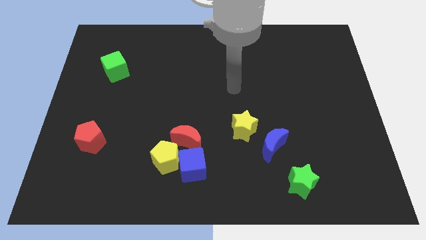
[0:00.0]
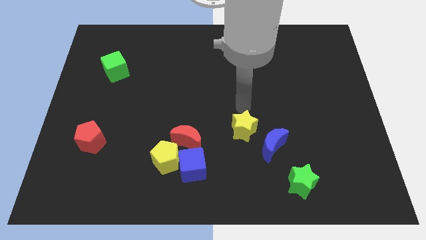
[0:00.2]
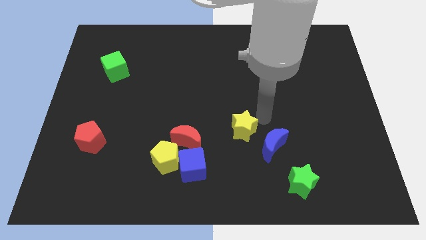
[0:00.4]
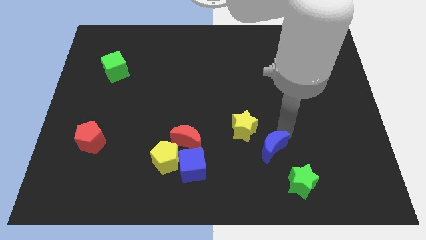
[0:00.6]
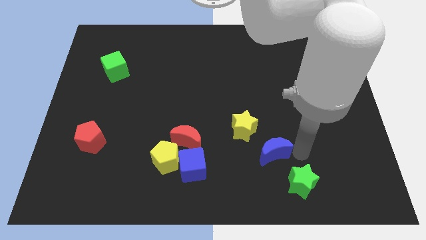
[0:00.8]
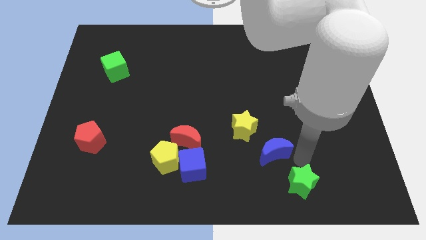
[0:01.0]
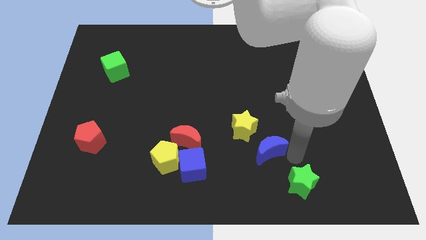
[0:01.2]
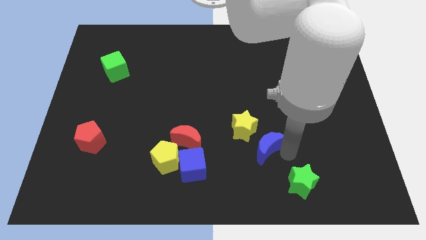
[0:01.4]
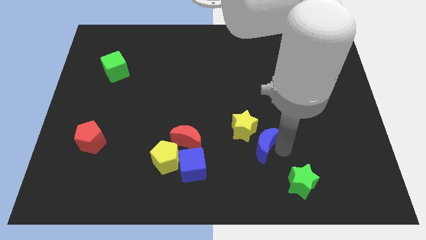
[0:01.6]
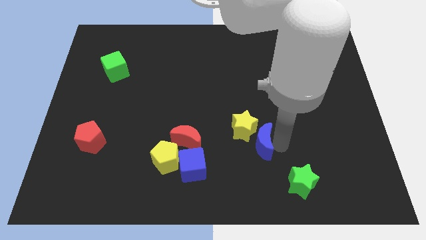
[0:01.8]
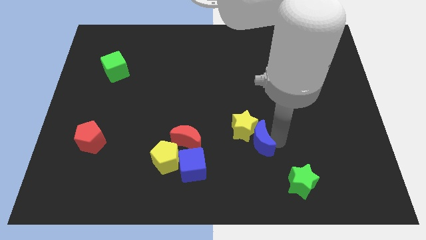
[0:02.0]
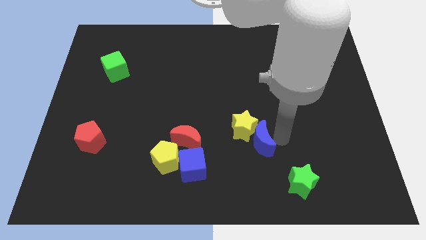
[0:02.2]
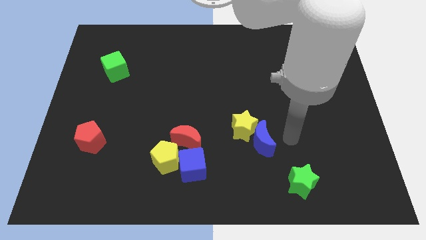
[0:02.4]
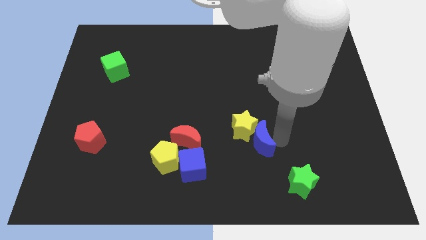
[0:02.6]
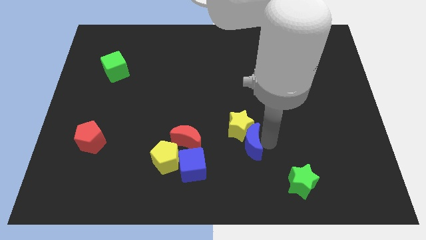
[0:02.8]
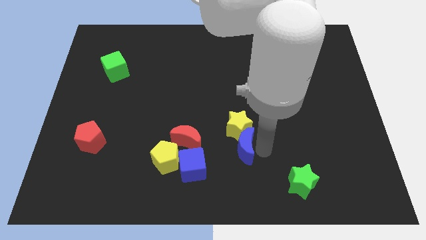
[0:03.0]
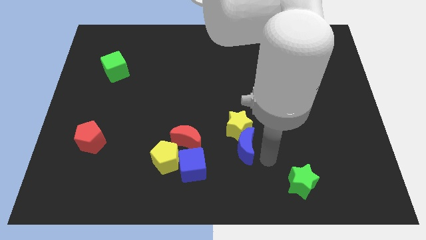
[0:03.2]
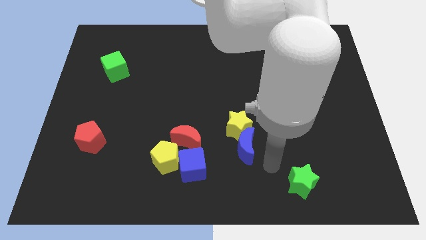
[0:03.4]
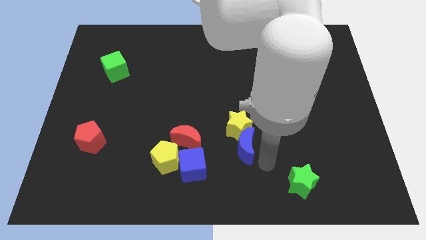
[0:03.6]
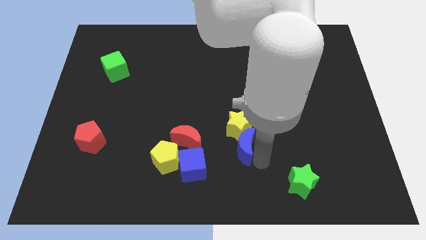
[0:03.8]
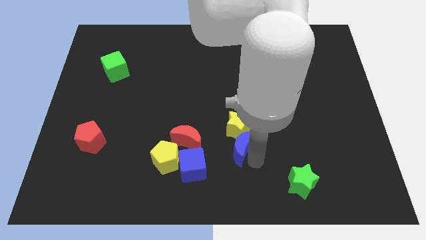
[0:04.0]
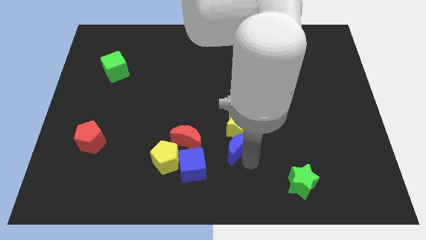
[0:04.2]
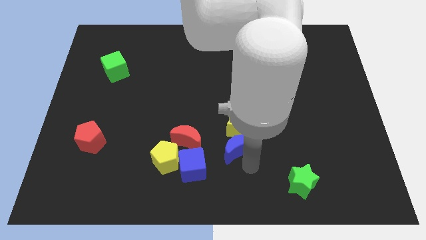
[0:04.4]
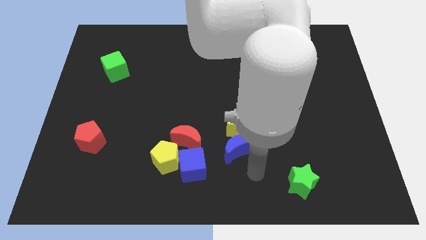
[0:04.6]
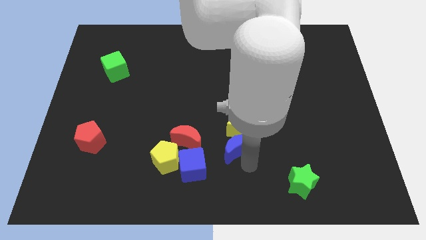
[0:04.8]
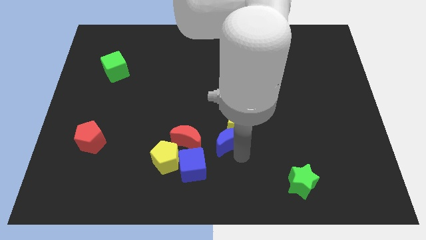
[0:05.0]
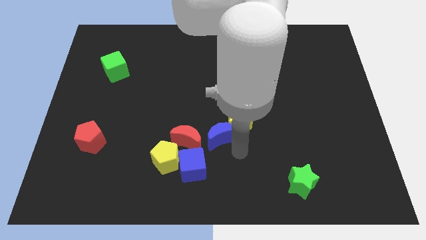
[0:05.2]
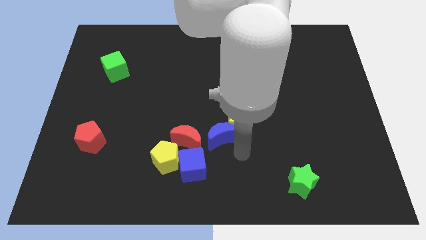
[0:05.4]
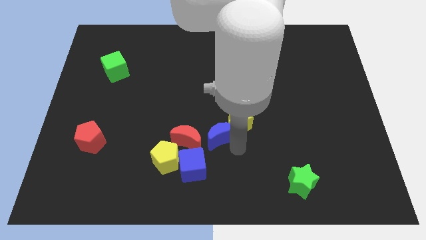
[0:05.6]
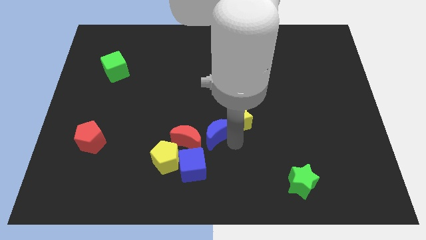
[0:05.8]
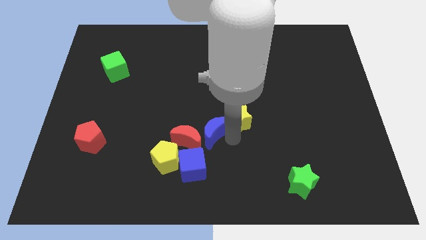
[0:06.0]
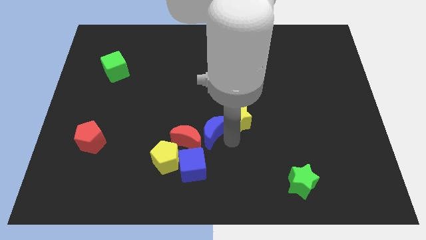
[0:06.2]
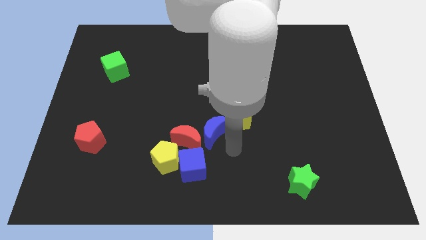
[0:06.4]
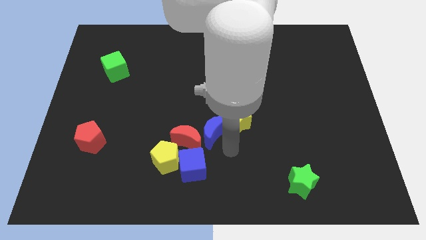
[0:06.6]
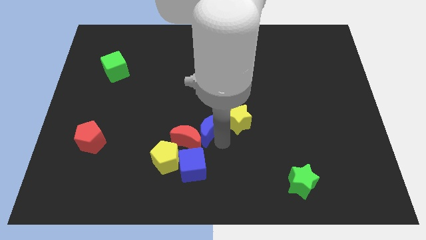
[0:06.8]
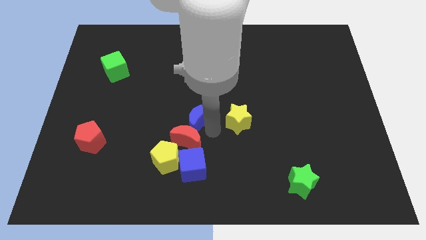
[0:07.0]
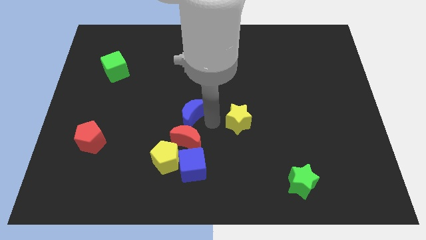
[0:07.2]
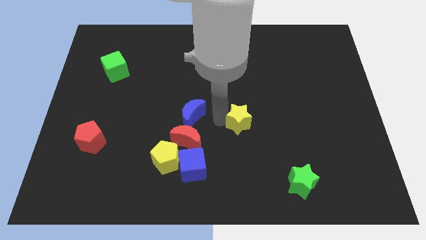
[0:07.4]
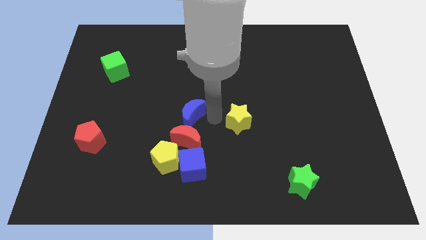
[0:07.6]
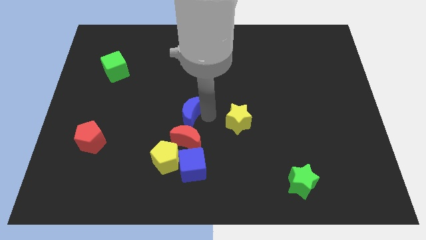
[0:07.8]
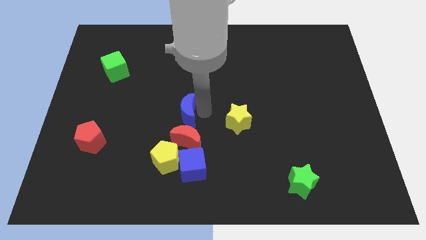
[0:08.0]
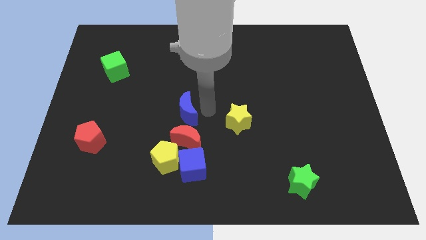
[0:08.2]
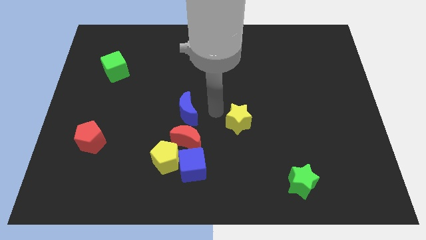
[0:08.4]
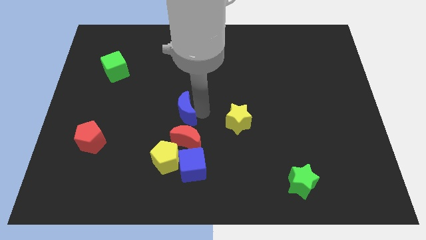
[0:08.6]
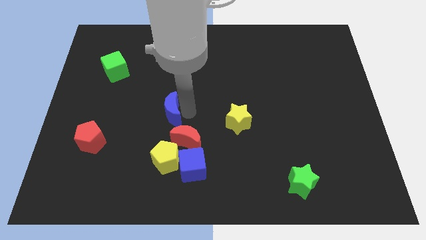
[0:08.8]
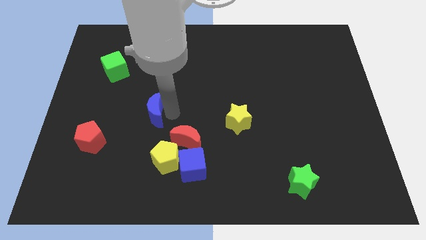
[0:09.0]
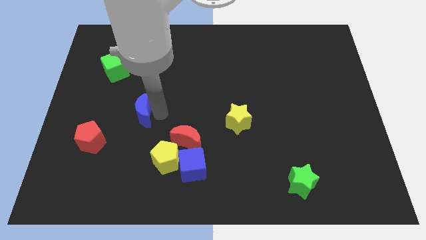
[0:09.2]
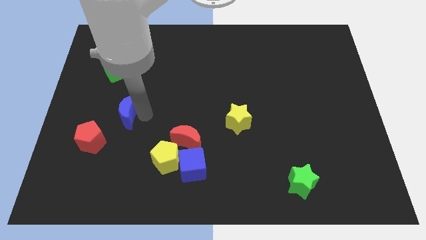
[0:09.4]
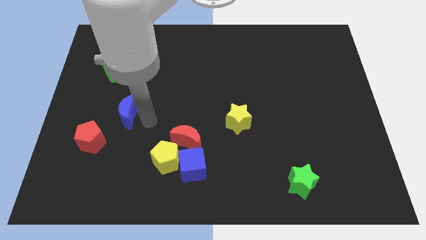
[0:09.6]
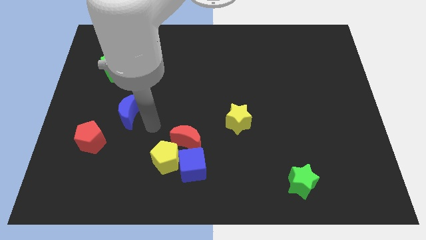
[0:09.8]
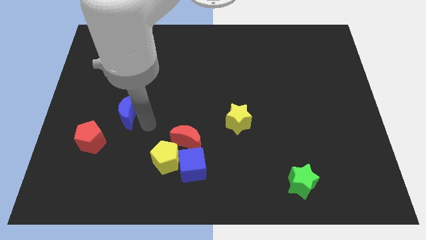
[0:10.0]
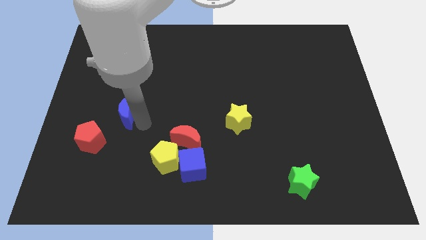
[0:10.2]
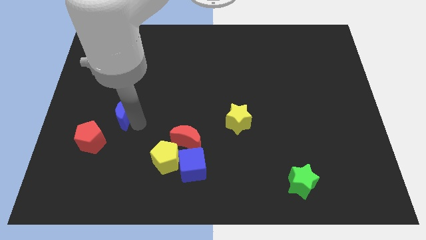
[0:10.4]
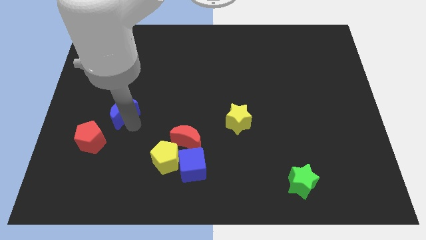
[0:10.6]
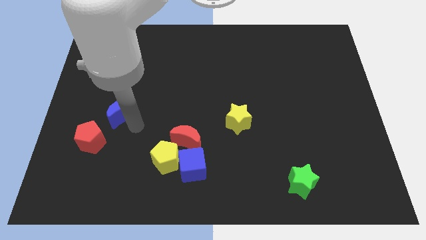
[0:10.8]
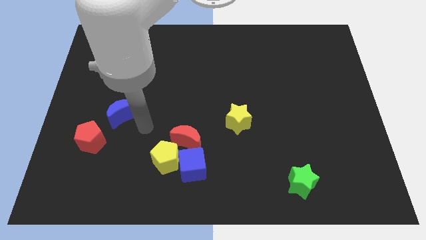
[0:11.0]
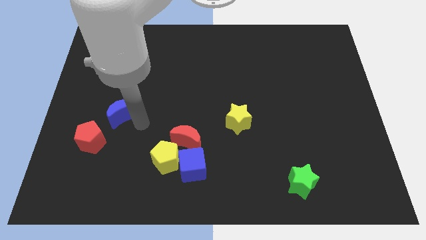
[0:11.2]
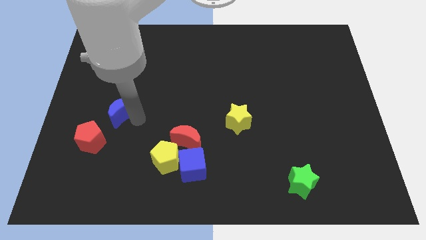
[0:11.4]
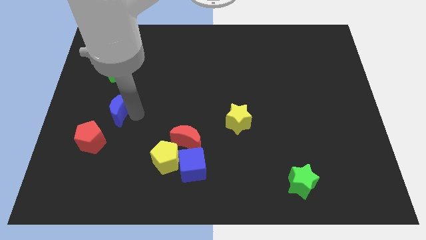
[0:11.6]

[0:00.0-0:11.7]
put the blue moon to the top of the red pentagon

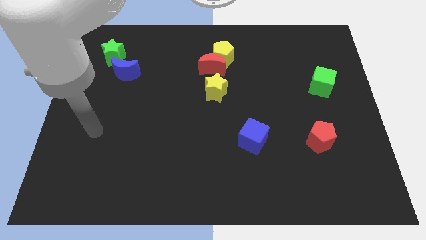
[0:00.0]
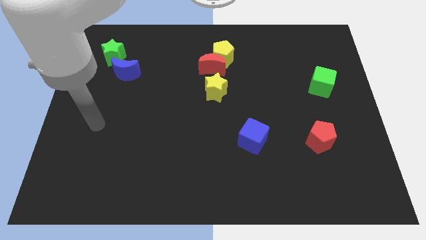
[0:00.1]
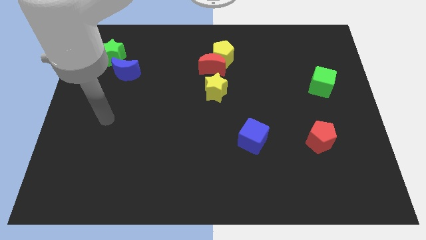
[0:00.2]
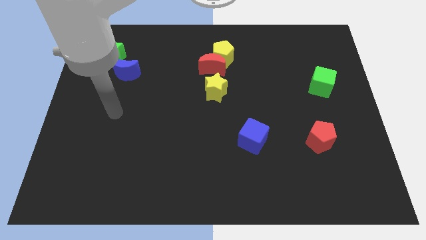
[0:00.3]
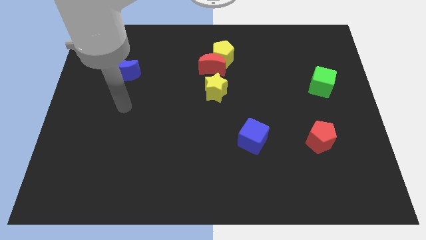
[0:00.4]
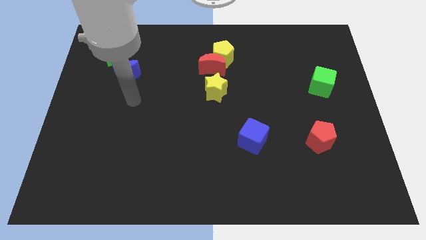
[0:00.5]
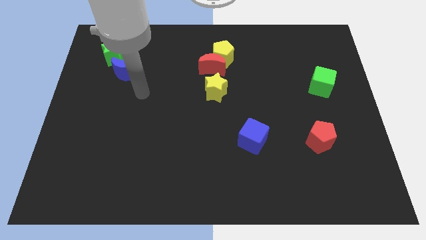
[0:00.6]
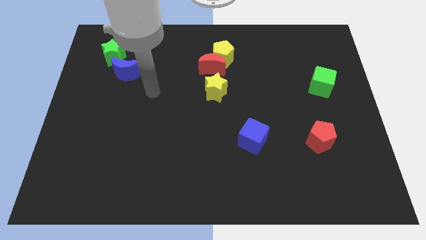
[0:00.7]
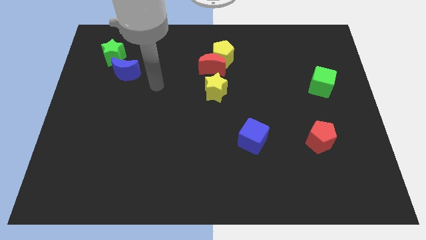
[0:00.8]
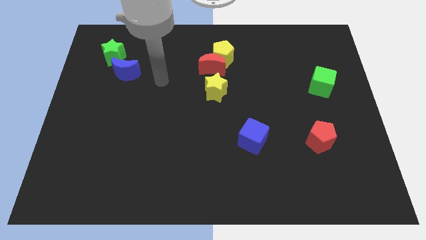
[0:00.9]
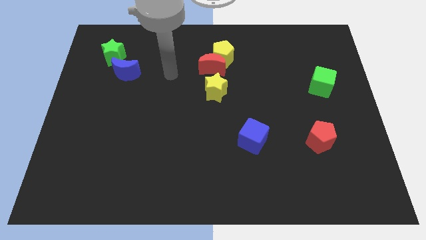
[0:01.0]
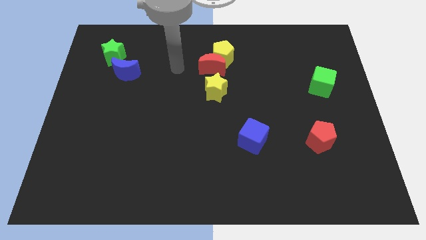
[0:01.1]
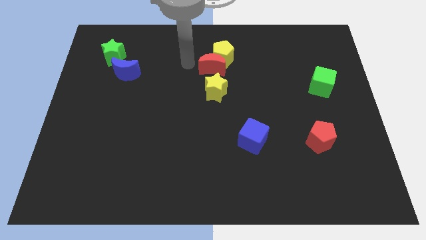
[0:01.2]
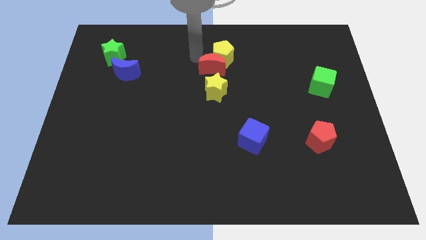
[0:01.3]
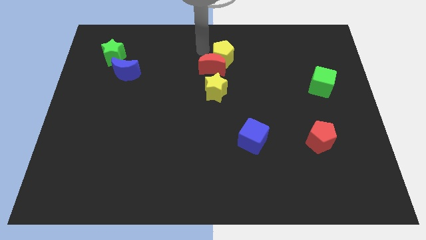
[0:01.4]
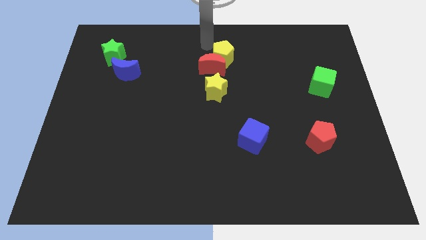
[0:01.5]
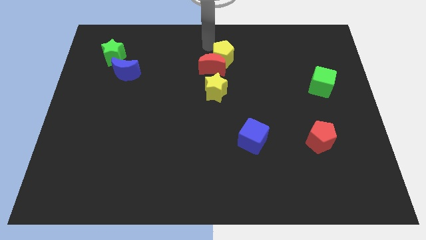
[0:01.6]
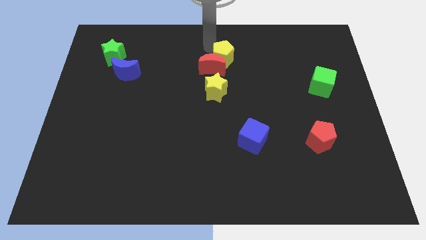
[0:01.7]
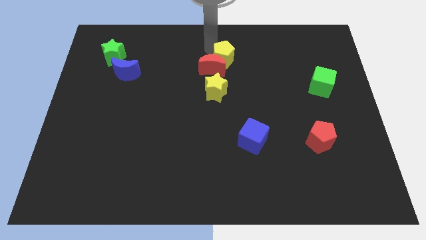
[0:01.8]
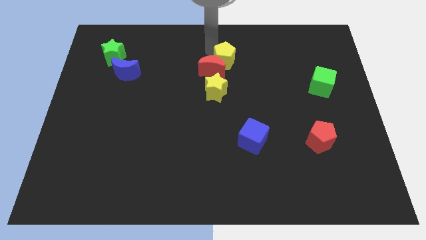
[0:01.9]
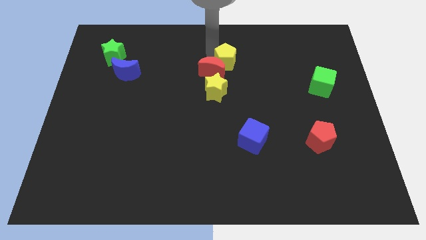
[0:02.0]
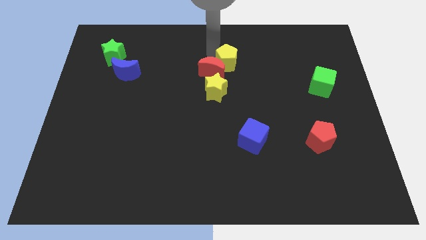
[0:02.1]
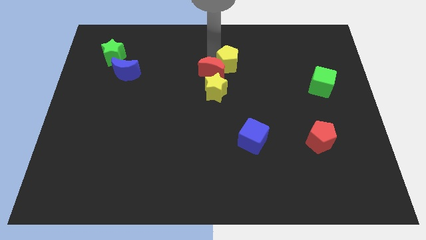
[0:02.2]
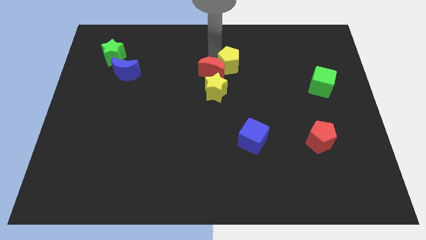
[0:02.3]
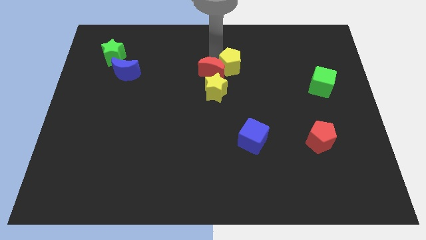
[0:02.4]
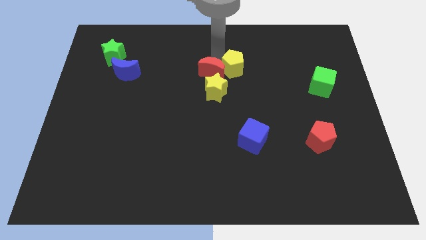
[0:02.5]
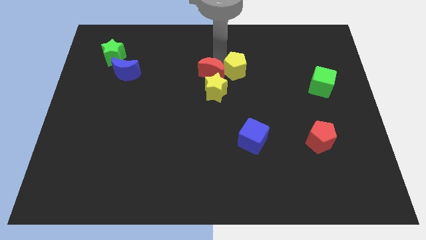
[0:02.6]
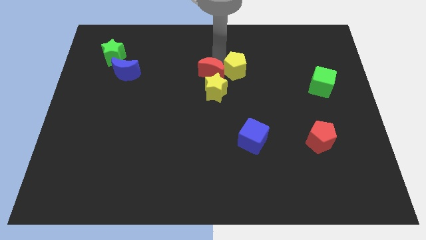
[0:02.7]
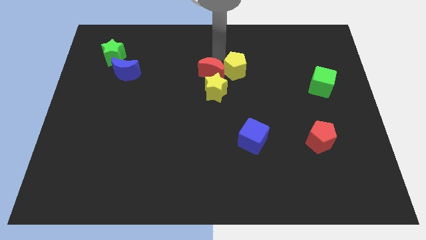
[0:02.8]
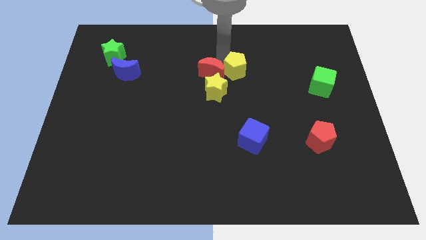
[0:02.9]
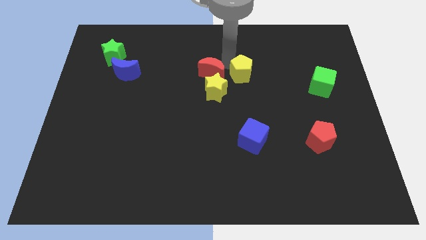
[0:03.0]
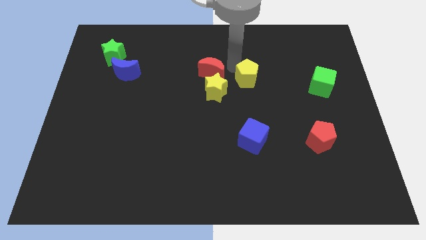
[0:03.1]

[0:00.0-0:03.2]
push the yellow pentagon to the right of the yellow star
